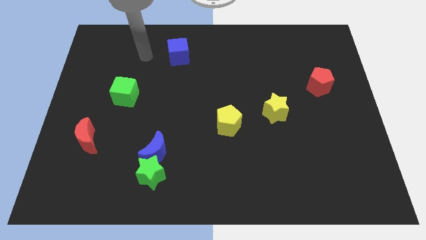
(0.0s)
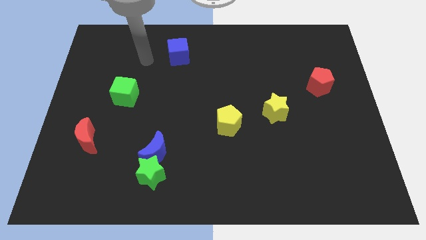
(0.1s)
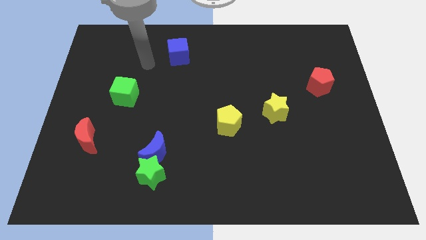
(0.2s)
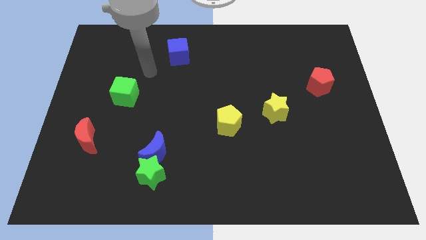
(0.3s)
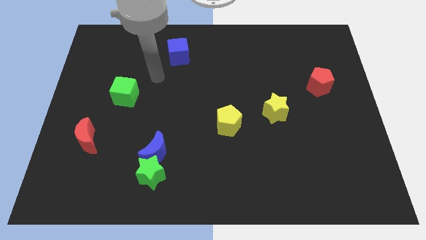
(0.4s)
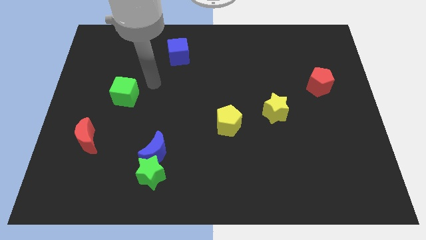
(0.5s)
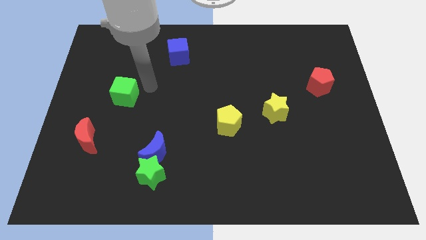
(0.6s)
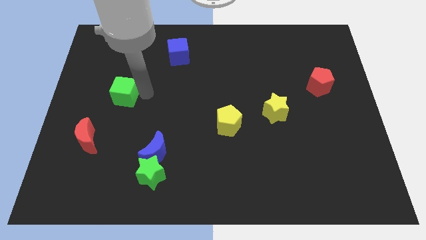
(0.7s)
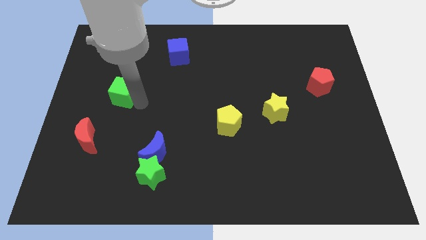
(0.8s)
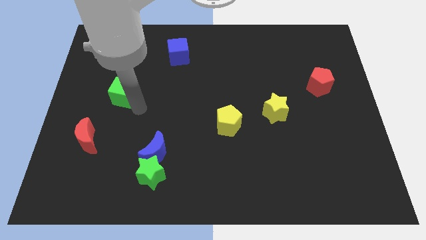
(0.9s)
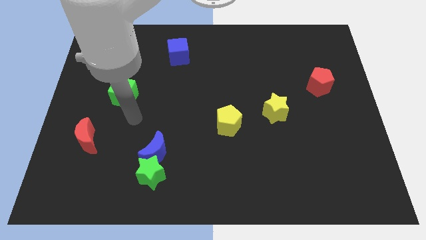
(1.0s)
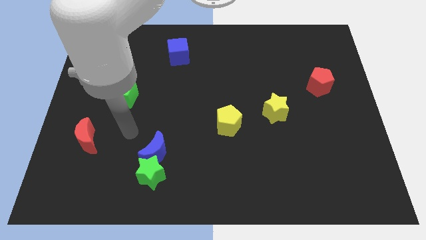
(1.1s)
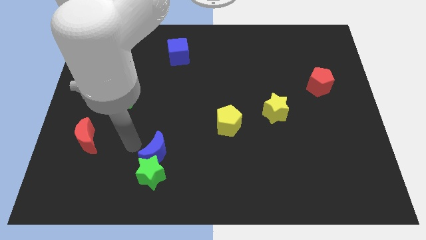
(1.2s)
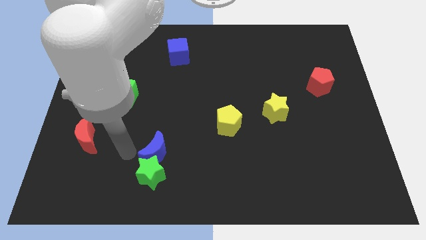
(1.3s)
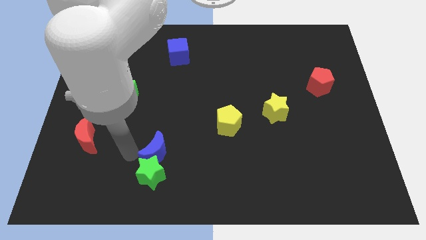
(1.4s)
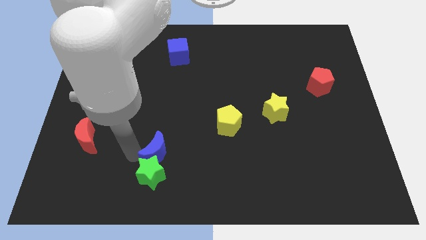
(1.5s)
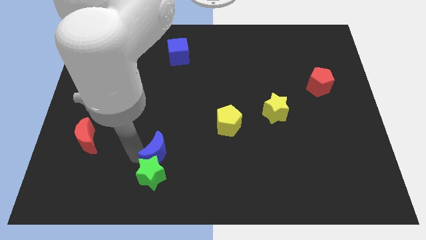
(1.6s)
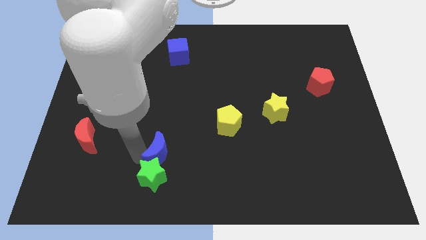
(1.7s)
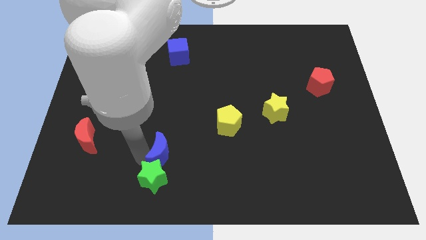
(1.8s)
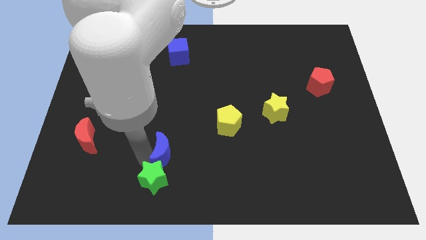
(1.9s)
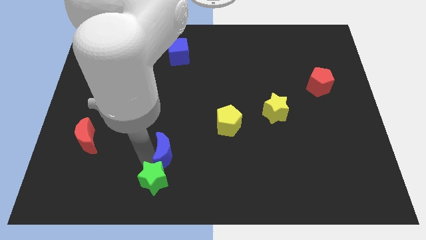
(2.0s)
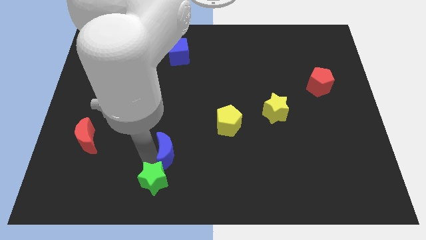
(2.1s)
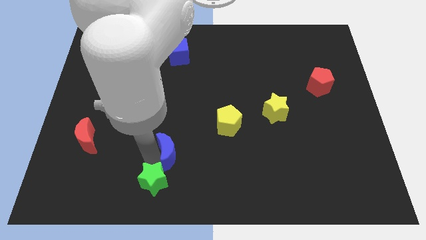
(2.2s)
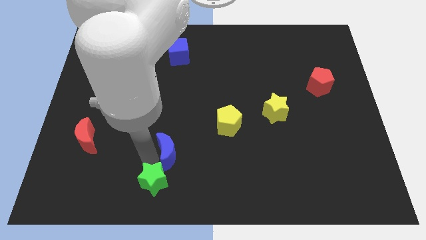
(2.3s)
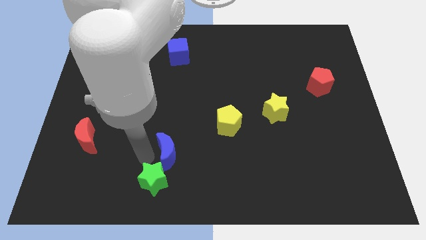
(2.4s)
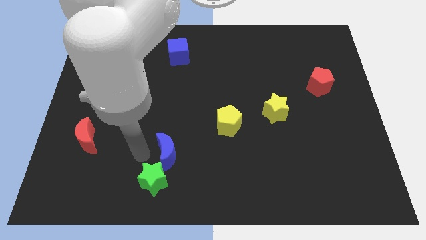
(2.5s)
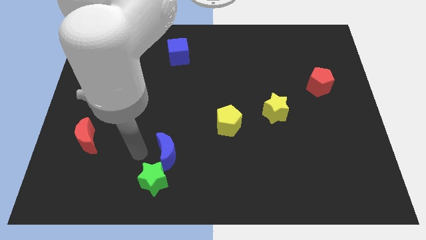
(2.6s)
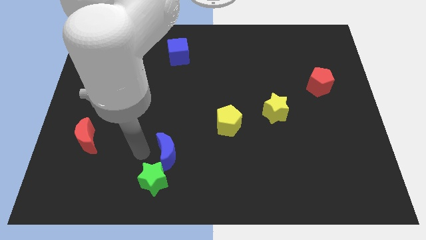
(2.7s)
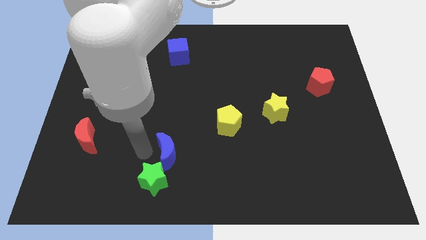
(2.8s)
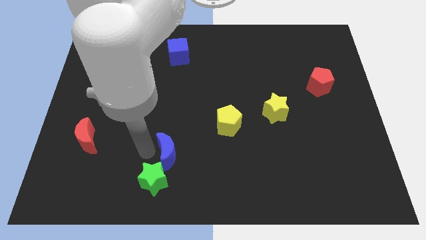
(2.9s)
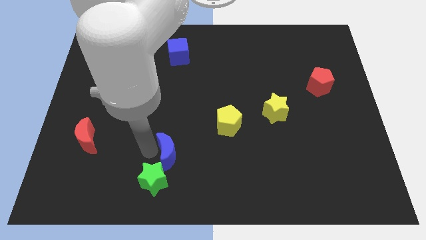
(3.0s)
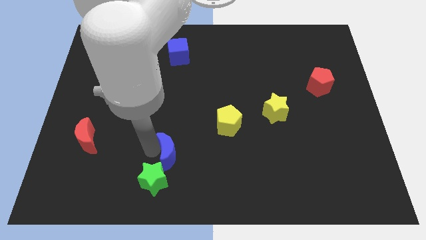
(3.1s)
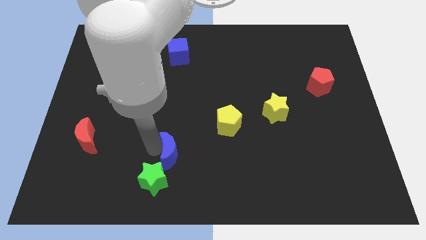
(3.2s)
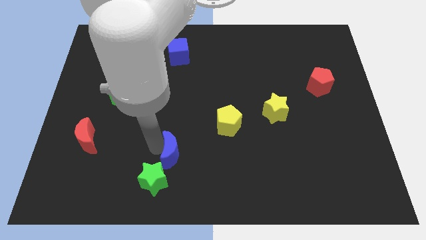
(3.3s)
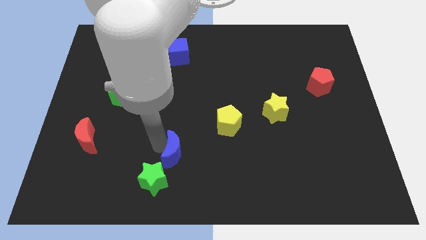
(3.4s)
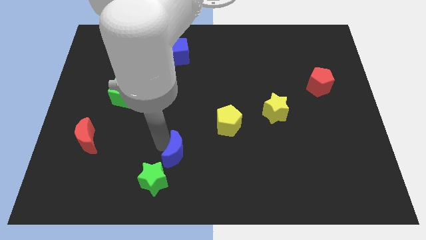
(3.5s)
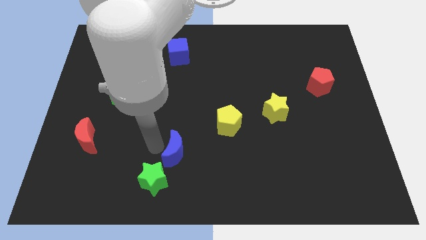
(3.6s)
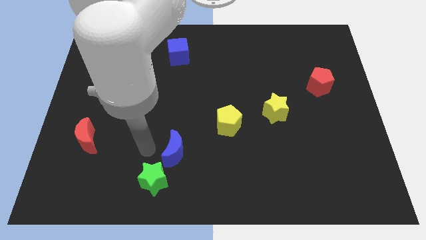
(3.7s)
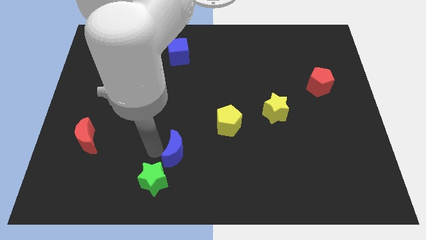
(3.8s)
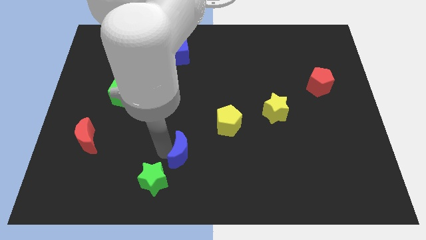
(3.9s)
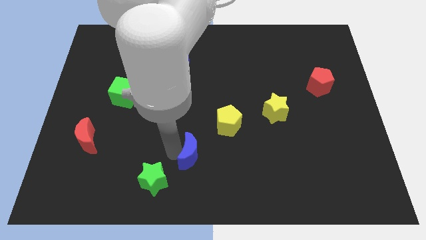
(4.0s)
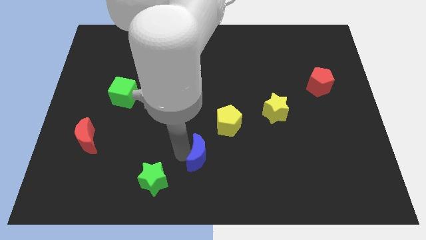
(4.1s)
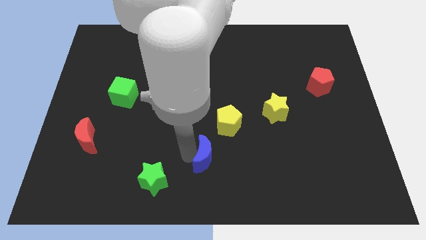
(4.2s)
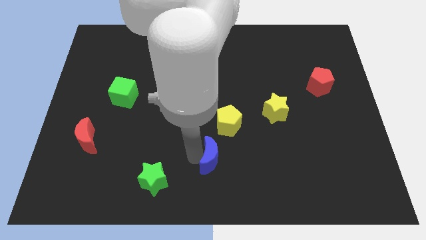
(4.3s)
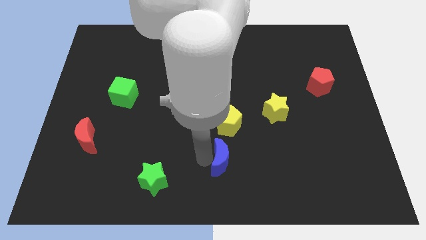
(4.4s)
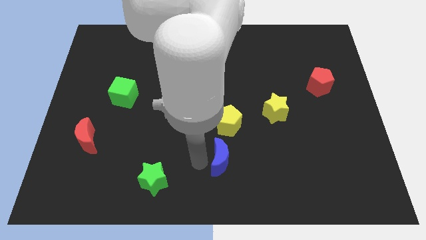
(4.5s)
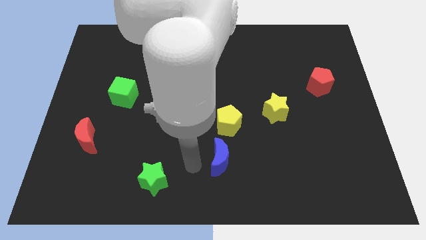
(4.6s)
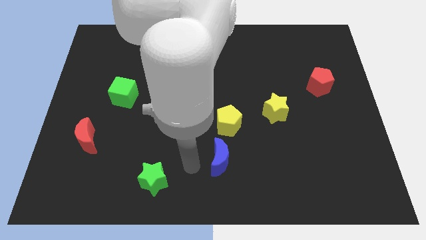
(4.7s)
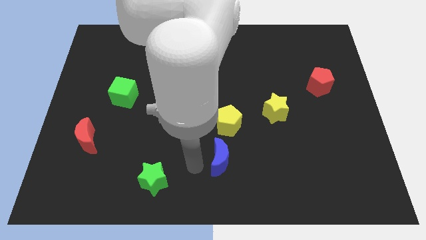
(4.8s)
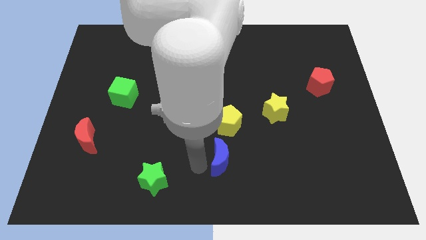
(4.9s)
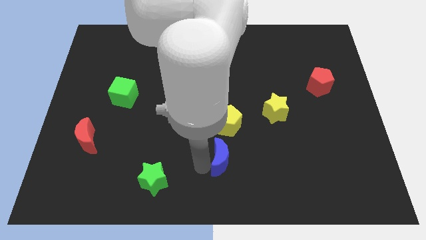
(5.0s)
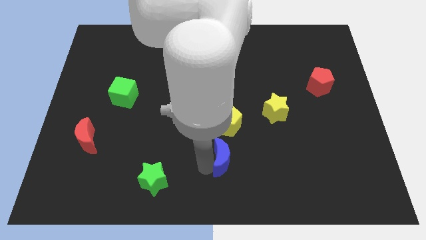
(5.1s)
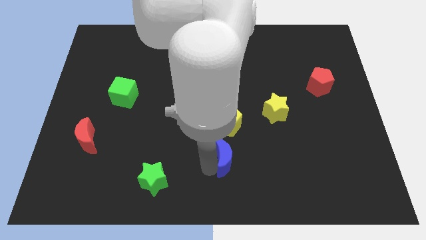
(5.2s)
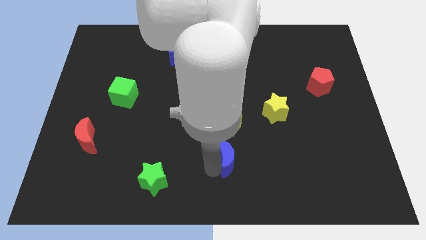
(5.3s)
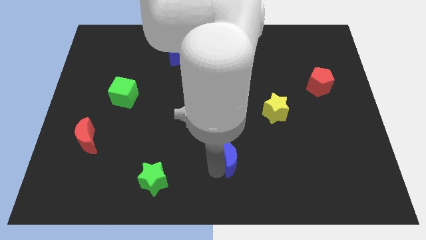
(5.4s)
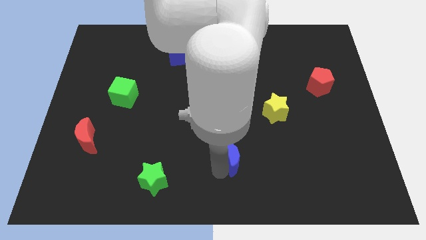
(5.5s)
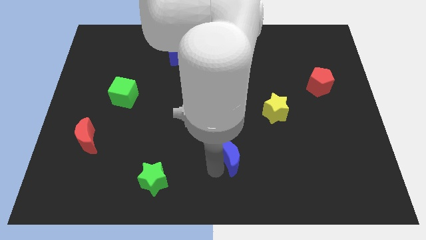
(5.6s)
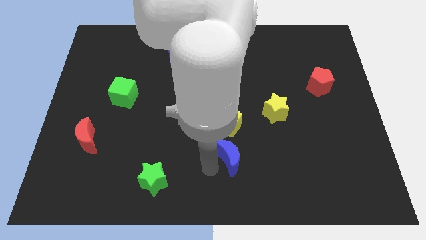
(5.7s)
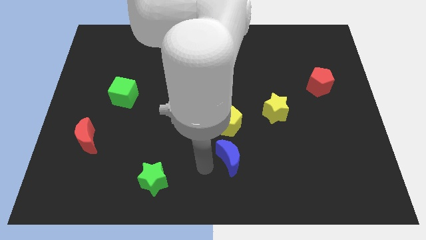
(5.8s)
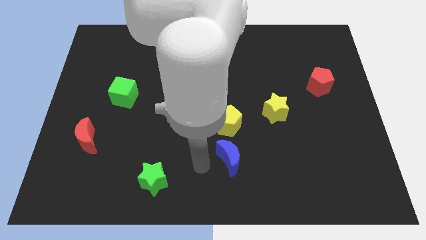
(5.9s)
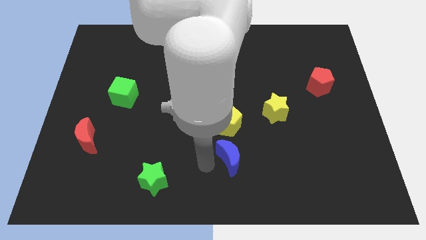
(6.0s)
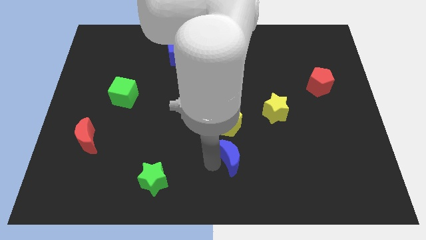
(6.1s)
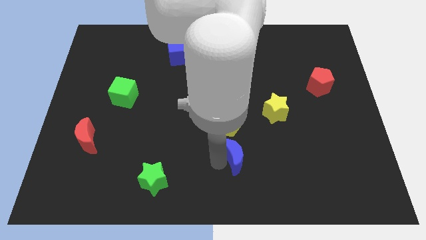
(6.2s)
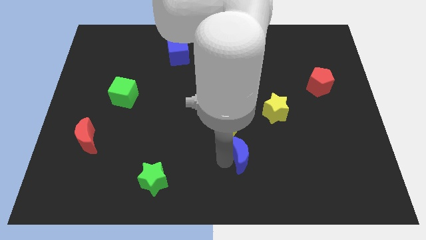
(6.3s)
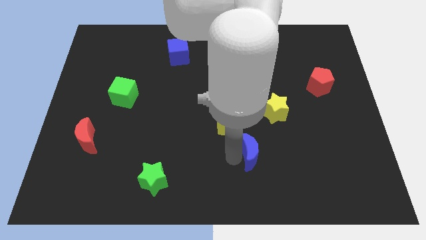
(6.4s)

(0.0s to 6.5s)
push the blue moon right

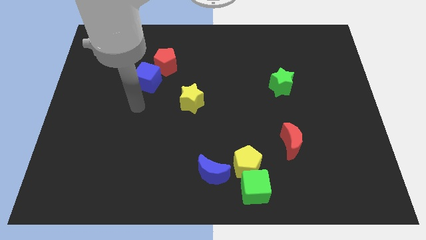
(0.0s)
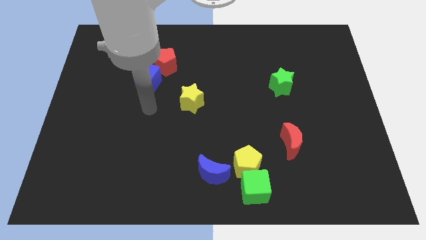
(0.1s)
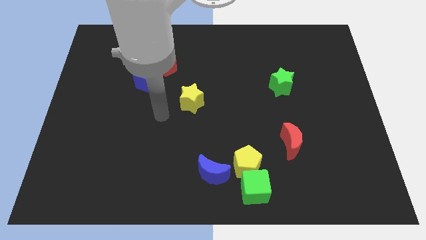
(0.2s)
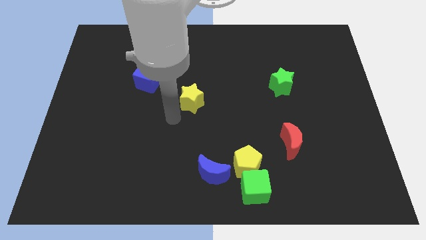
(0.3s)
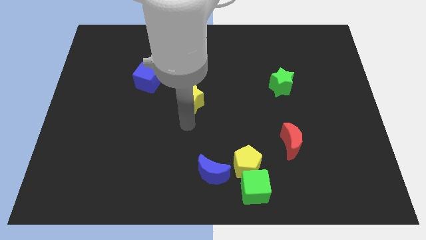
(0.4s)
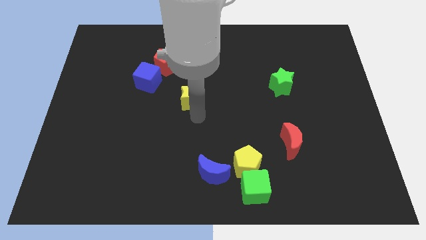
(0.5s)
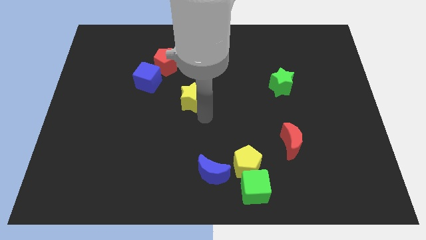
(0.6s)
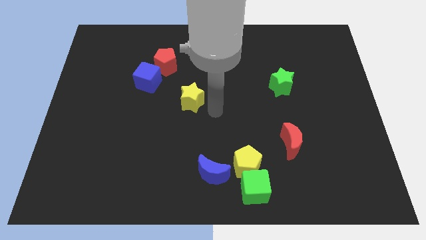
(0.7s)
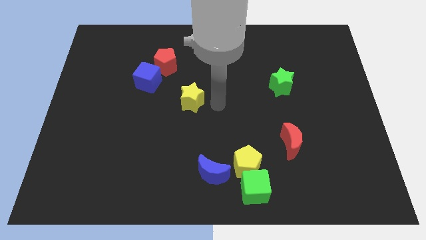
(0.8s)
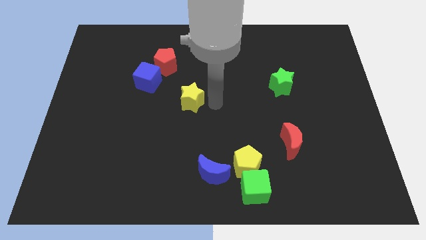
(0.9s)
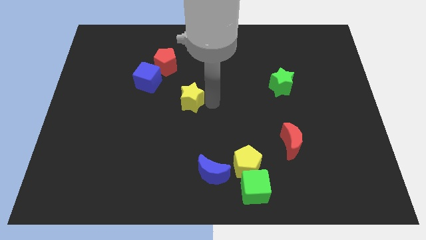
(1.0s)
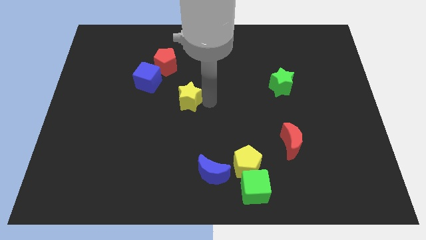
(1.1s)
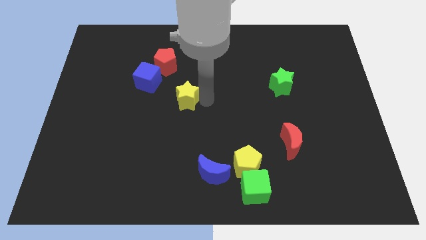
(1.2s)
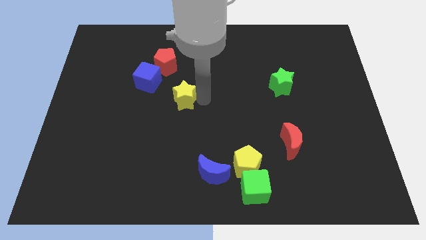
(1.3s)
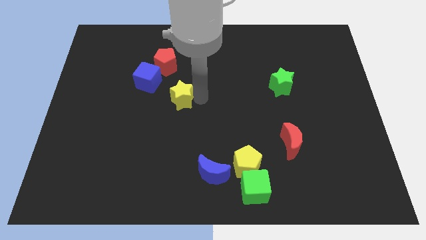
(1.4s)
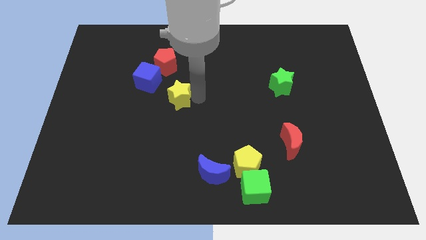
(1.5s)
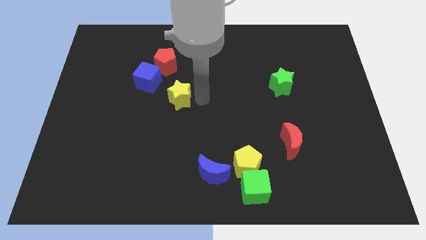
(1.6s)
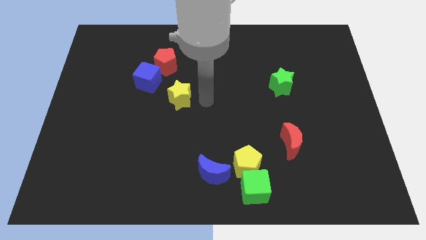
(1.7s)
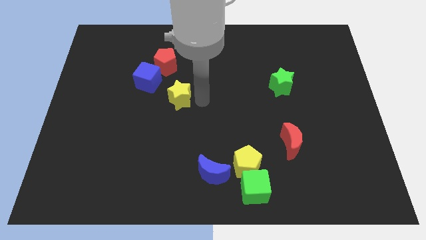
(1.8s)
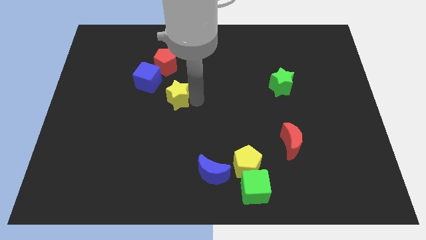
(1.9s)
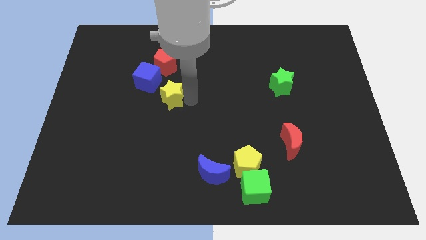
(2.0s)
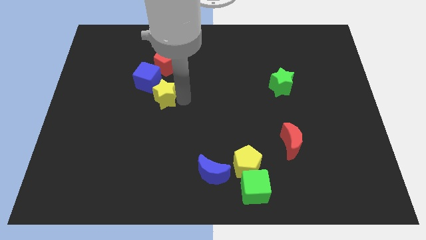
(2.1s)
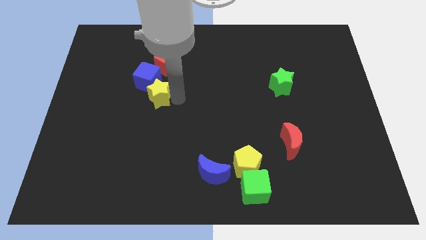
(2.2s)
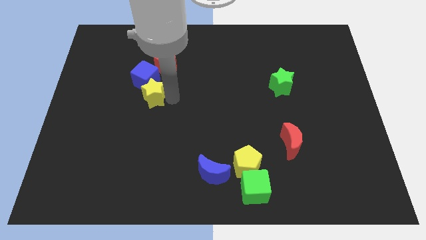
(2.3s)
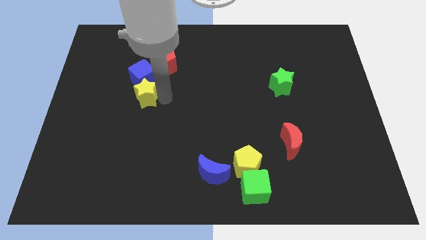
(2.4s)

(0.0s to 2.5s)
slightly move the yellow star up and left diagonally
